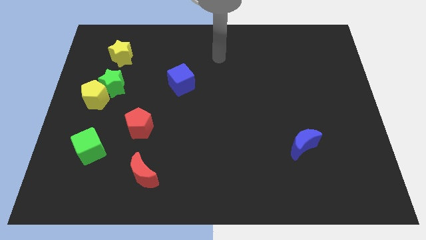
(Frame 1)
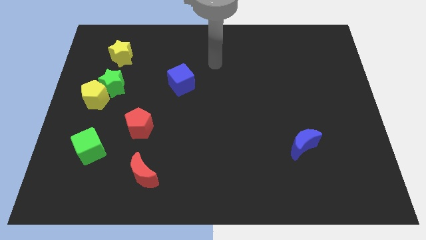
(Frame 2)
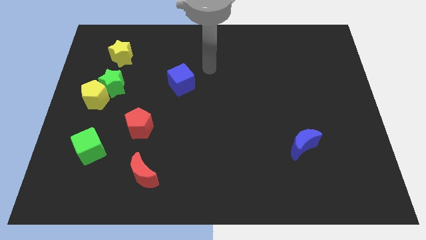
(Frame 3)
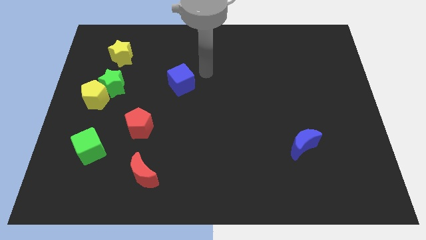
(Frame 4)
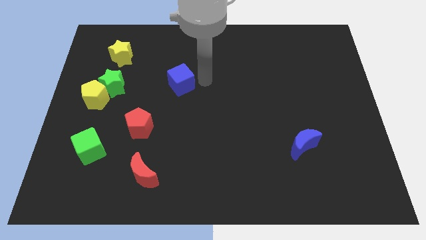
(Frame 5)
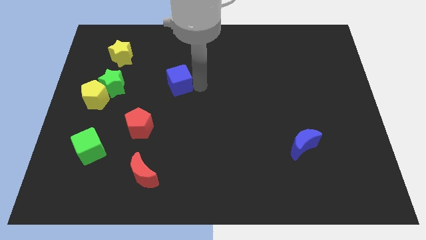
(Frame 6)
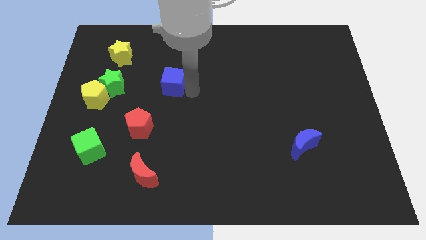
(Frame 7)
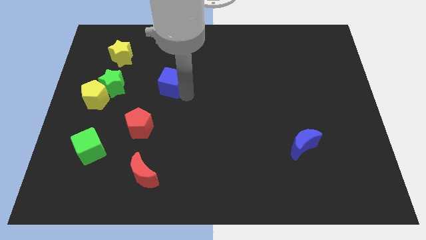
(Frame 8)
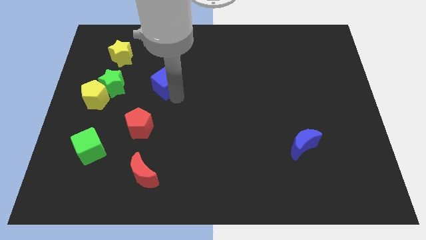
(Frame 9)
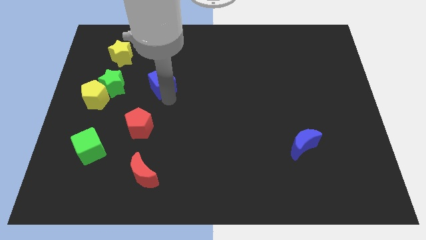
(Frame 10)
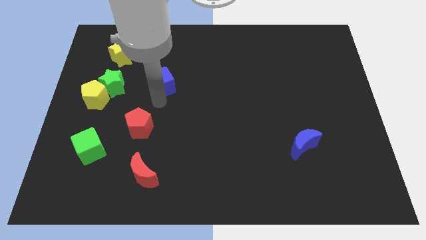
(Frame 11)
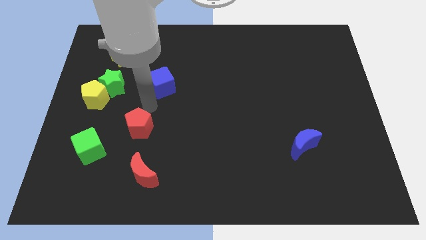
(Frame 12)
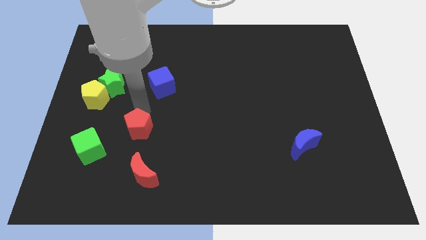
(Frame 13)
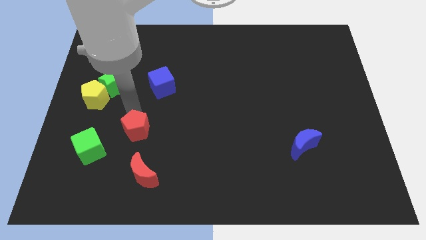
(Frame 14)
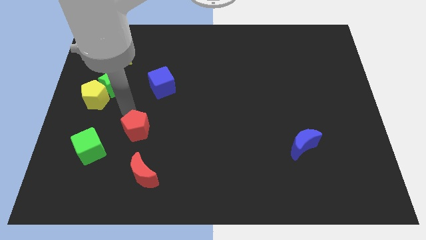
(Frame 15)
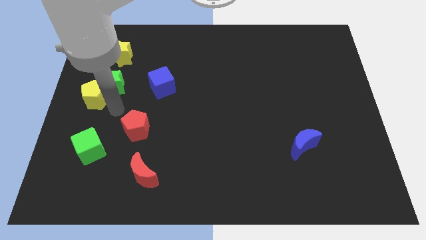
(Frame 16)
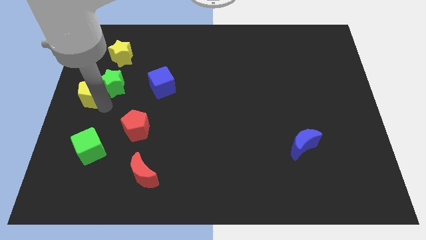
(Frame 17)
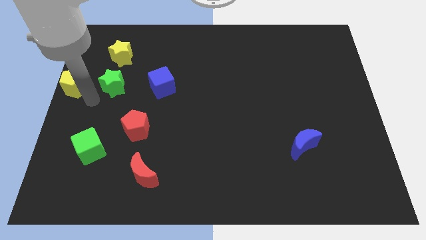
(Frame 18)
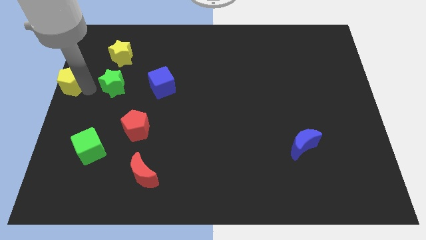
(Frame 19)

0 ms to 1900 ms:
separate the green star from the yellow pentagon

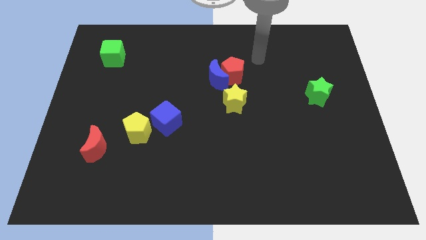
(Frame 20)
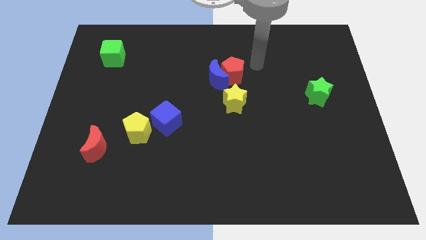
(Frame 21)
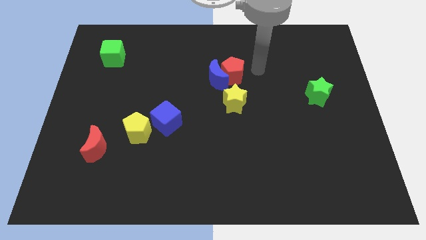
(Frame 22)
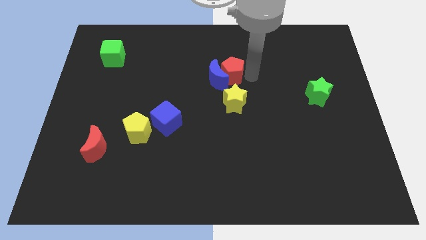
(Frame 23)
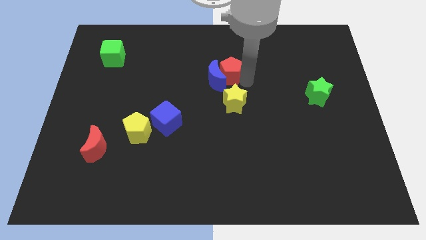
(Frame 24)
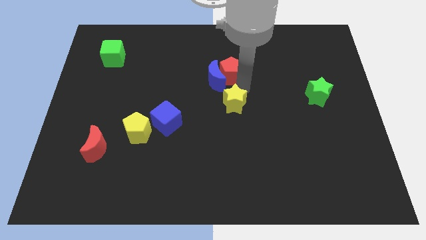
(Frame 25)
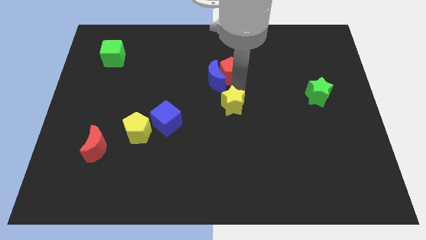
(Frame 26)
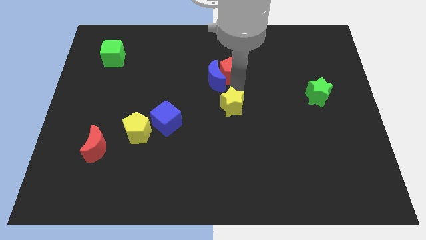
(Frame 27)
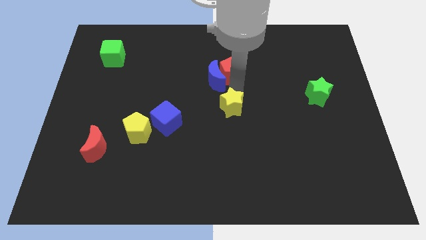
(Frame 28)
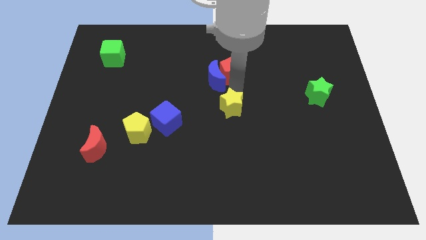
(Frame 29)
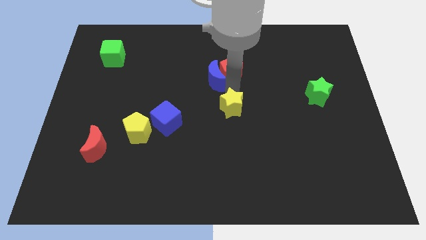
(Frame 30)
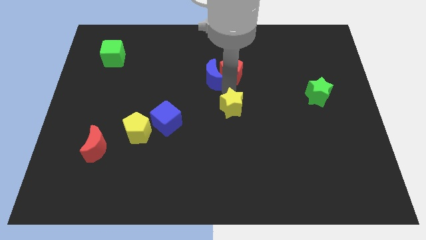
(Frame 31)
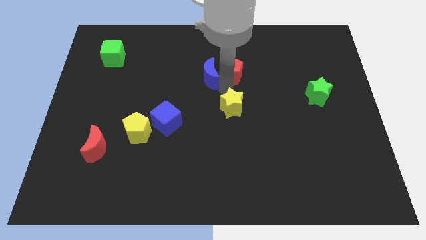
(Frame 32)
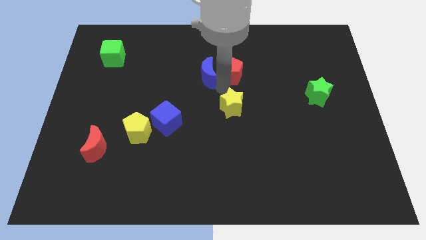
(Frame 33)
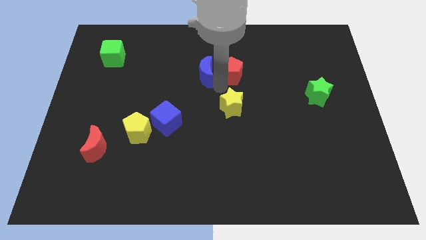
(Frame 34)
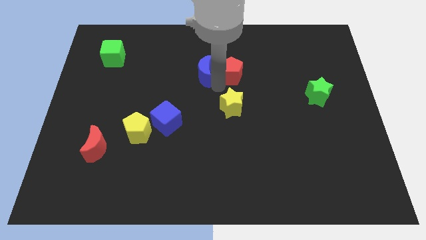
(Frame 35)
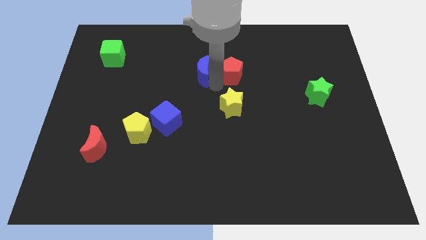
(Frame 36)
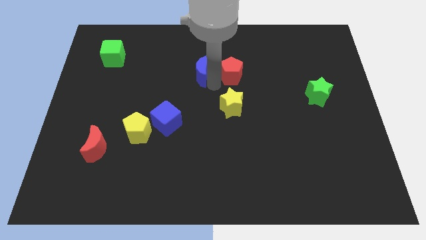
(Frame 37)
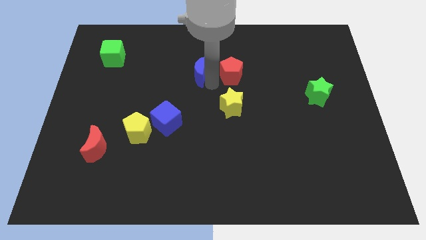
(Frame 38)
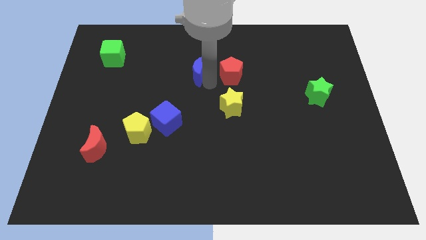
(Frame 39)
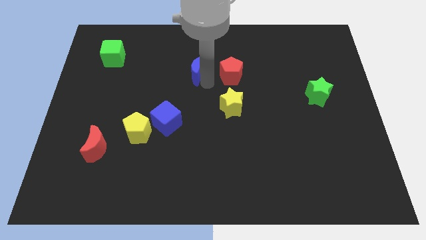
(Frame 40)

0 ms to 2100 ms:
move the blue moon away from the red pentagon and yellow star

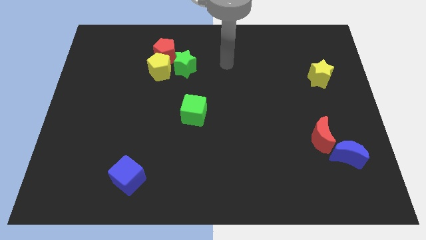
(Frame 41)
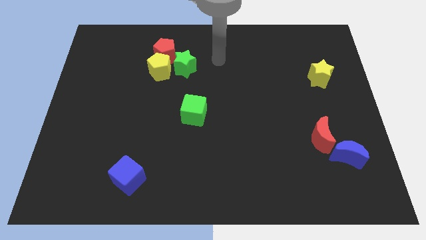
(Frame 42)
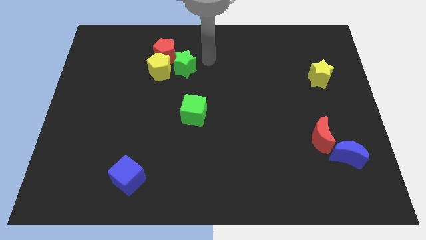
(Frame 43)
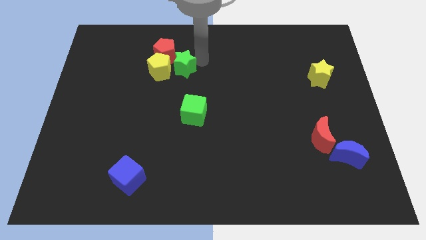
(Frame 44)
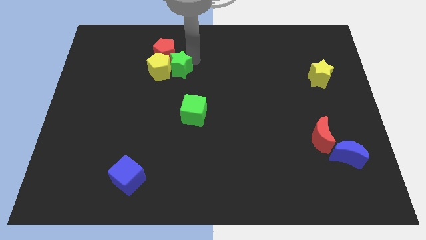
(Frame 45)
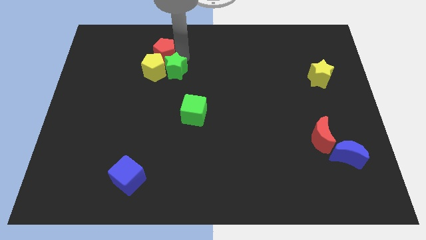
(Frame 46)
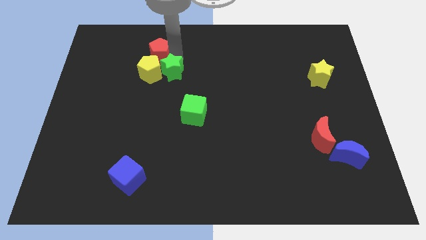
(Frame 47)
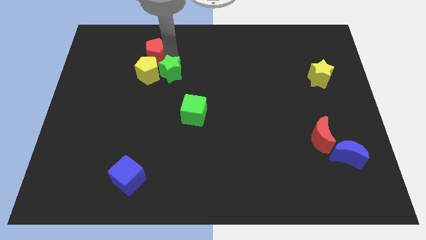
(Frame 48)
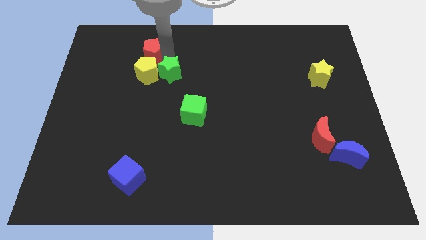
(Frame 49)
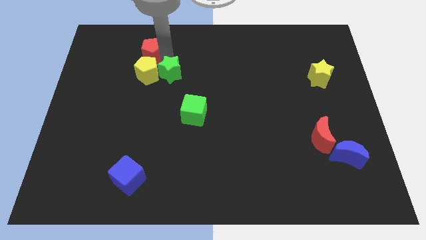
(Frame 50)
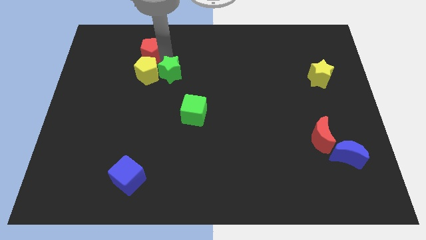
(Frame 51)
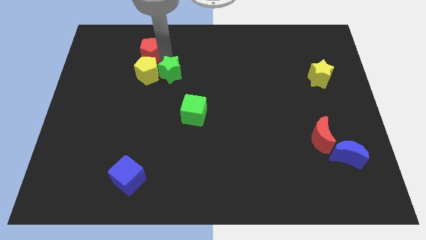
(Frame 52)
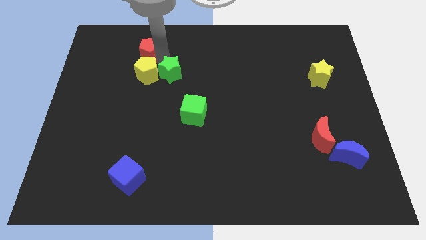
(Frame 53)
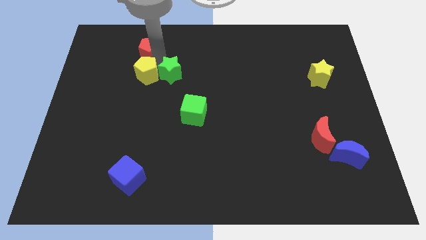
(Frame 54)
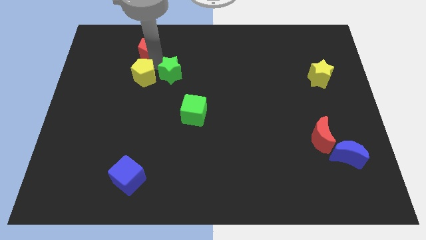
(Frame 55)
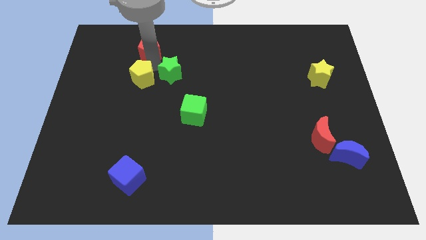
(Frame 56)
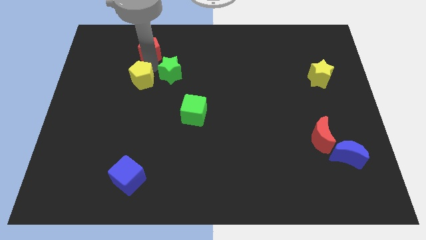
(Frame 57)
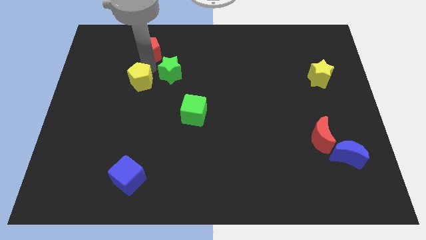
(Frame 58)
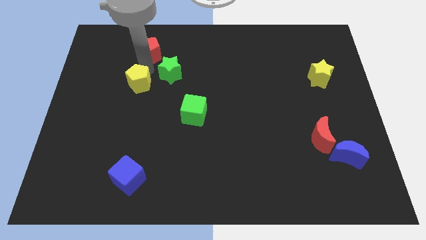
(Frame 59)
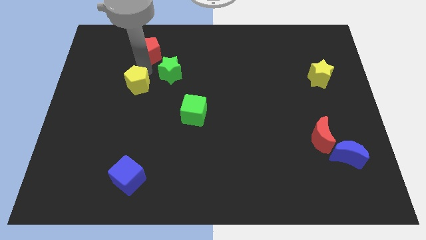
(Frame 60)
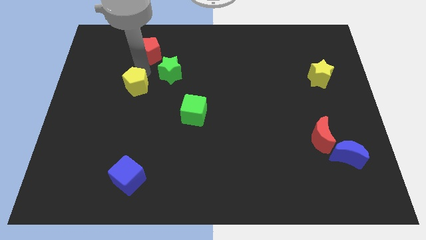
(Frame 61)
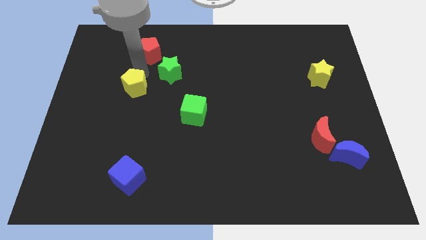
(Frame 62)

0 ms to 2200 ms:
separate the yellow pentagon from the red pentagon and green star

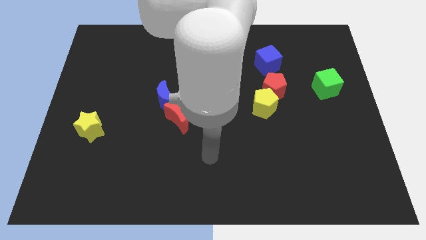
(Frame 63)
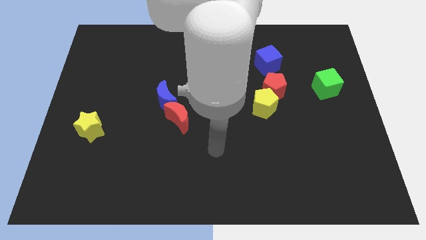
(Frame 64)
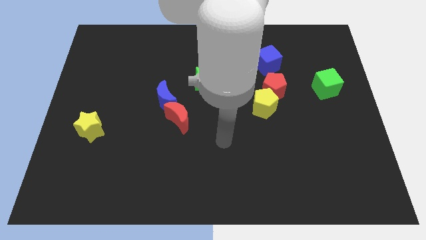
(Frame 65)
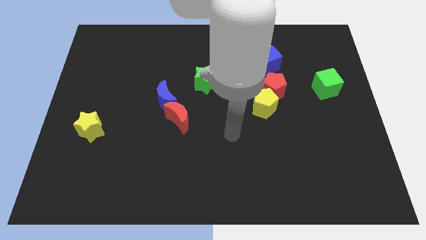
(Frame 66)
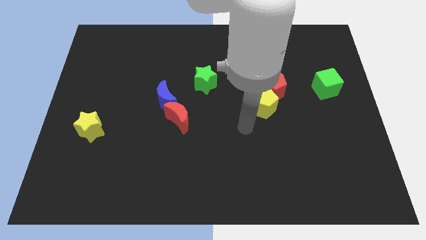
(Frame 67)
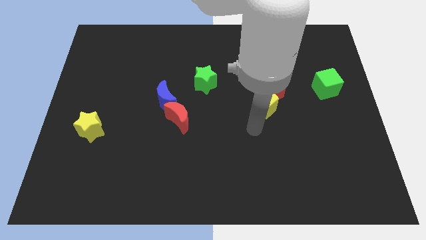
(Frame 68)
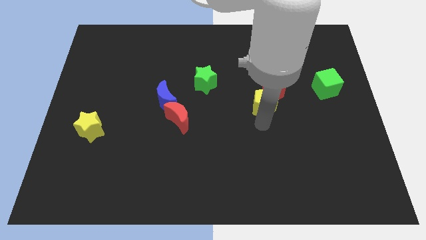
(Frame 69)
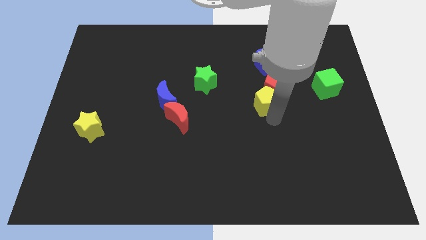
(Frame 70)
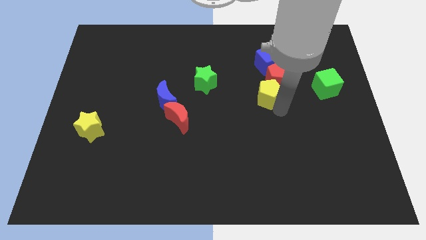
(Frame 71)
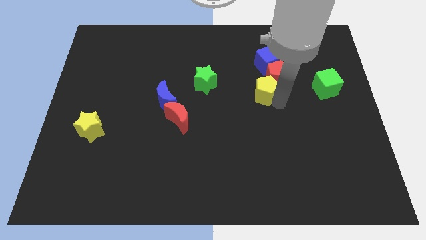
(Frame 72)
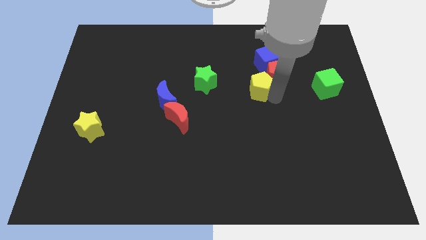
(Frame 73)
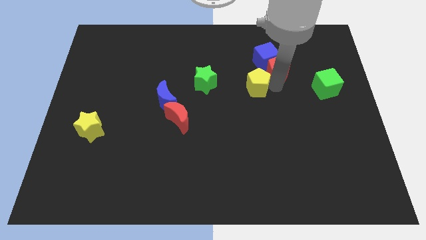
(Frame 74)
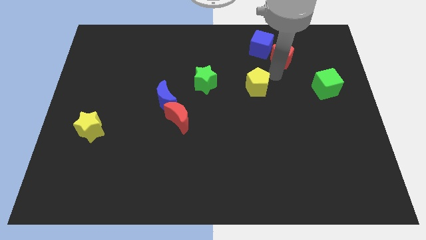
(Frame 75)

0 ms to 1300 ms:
separate the yellow pentagon from the red pentagon

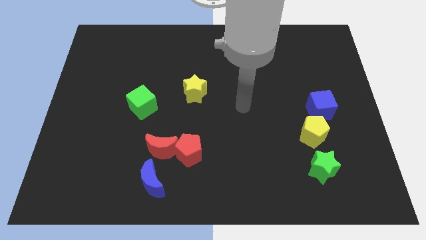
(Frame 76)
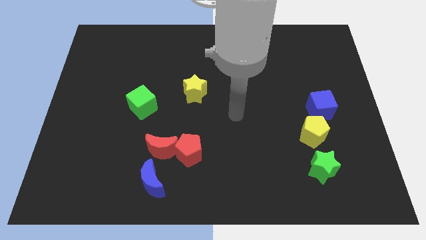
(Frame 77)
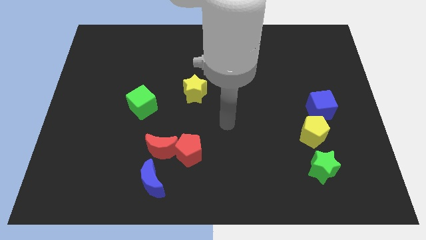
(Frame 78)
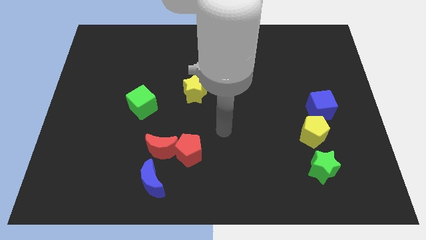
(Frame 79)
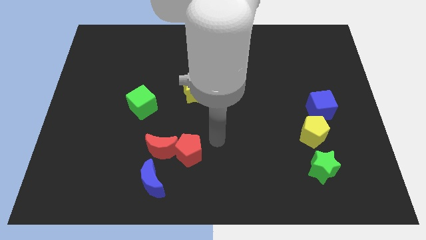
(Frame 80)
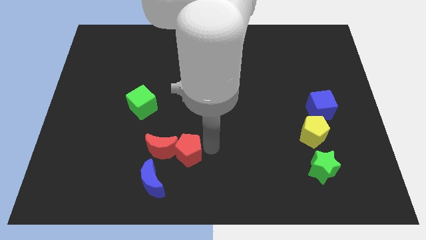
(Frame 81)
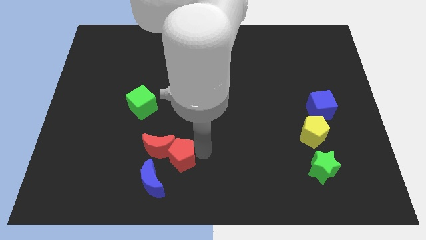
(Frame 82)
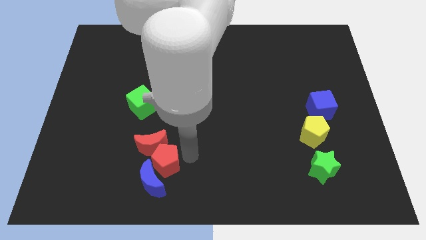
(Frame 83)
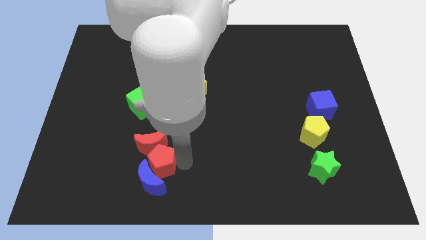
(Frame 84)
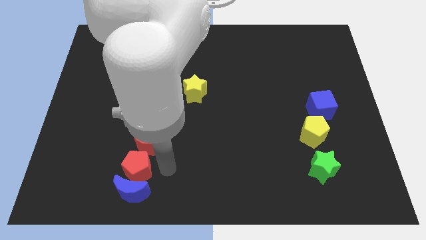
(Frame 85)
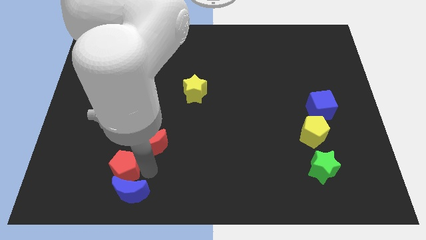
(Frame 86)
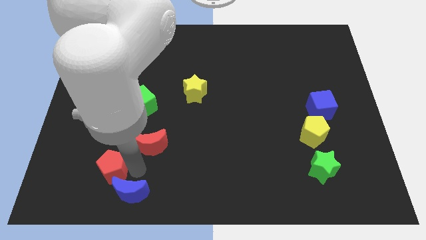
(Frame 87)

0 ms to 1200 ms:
separate the red moon from the red pentagon and blue moon

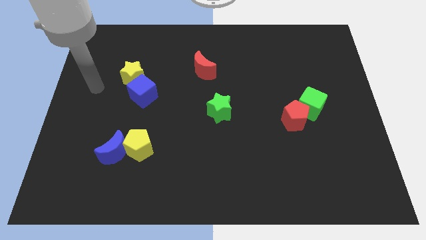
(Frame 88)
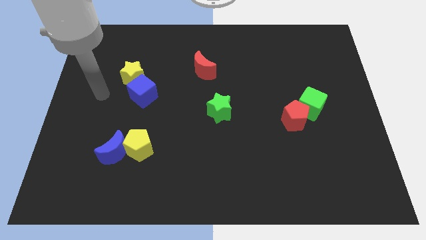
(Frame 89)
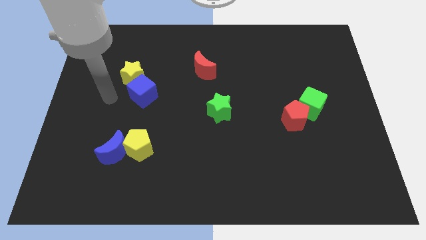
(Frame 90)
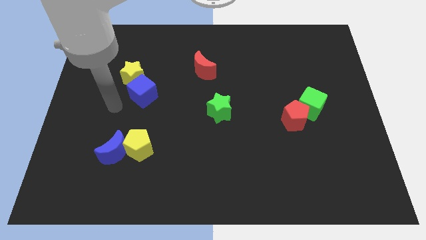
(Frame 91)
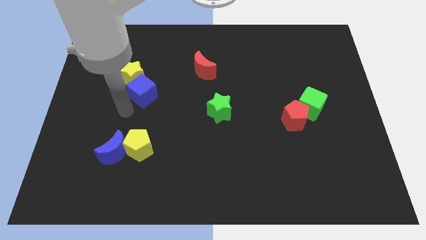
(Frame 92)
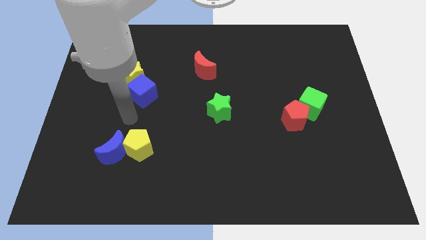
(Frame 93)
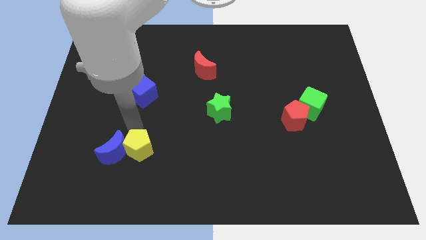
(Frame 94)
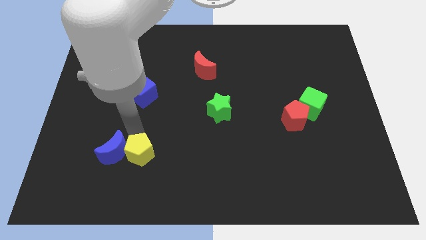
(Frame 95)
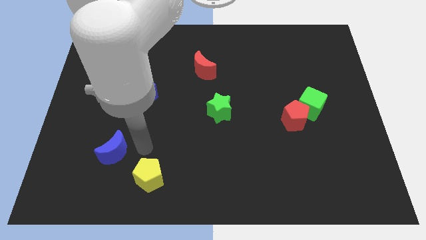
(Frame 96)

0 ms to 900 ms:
pull the blue moon apart from the yellow pentagon
